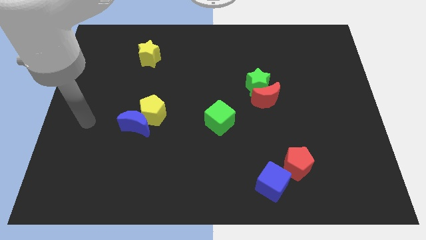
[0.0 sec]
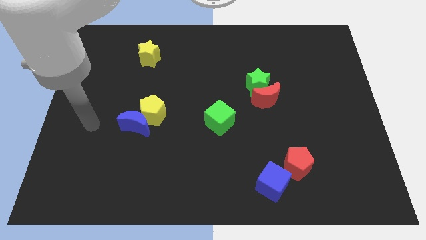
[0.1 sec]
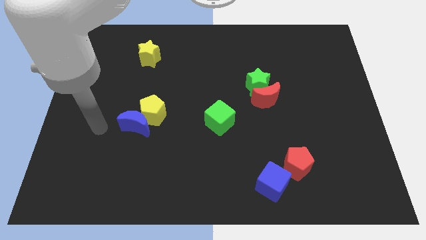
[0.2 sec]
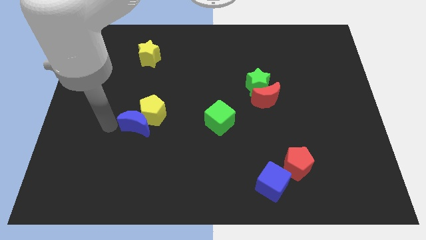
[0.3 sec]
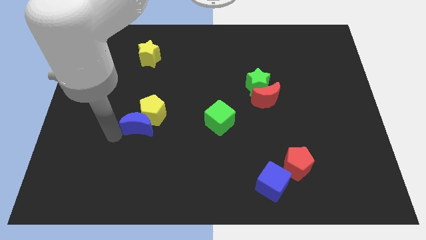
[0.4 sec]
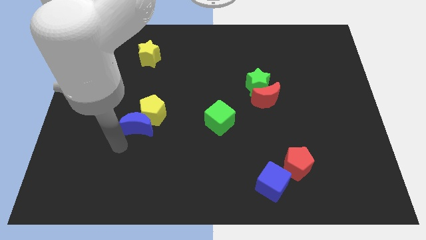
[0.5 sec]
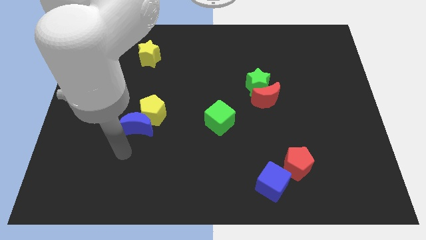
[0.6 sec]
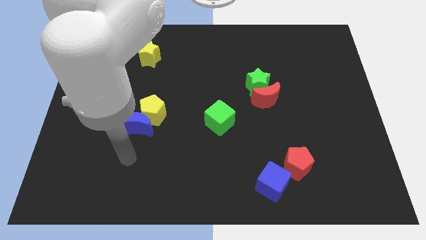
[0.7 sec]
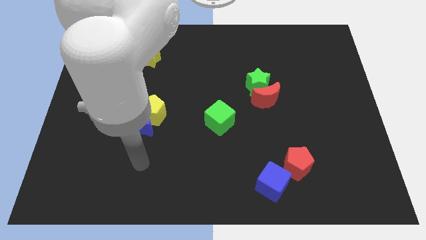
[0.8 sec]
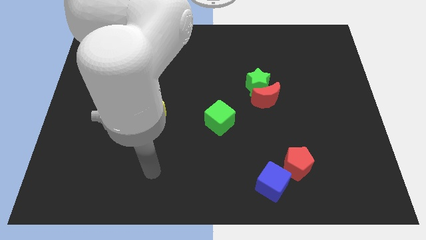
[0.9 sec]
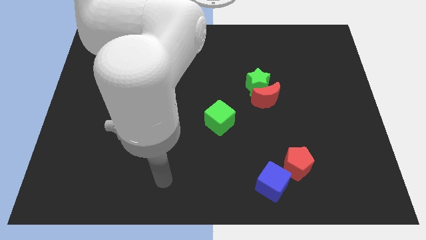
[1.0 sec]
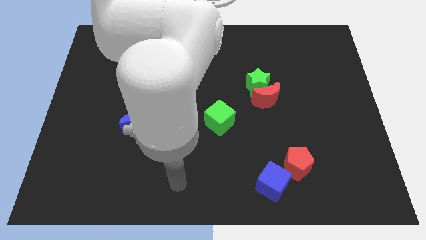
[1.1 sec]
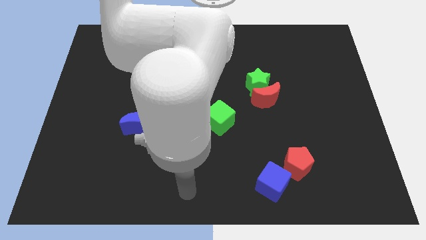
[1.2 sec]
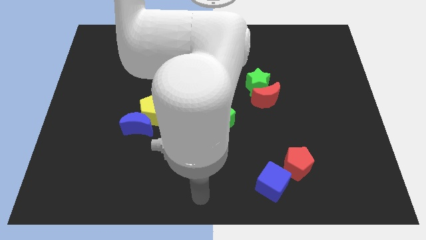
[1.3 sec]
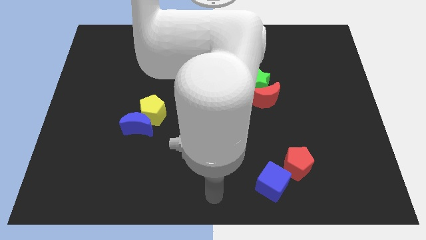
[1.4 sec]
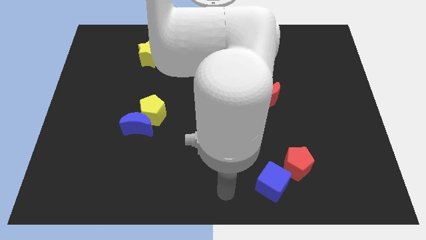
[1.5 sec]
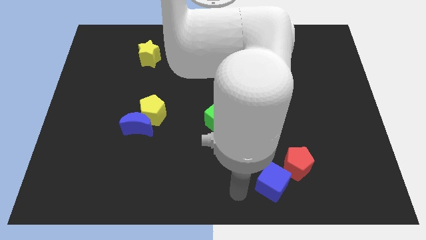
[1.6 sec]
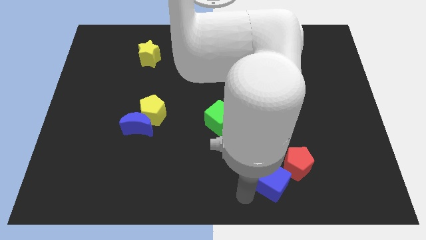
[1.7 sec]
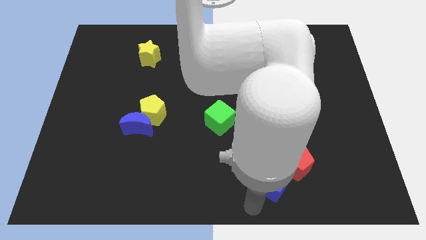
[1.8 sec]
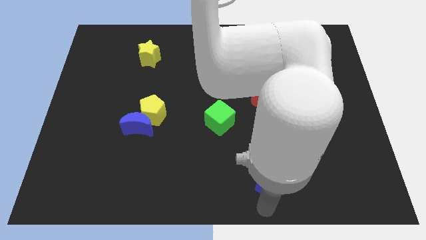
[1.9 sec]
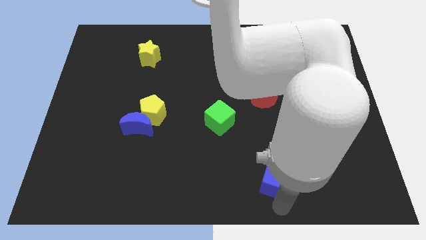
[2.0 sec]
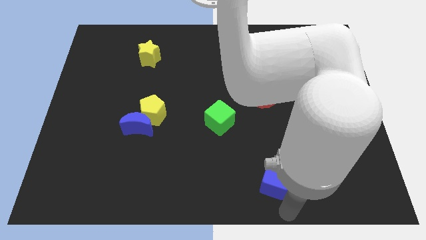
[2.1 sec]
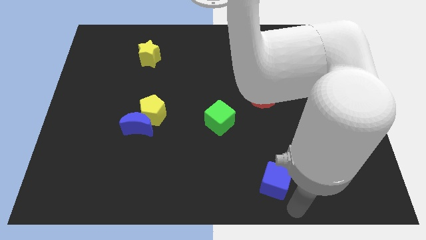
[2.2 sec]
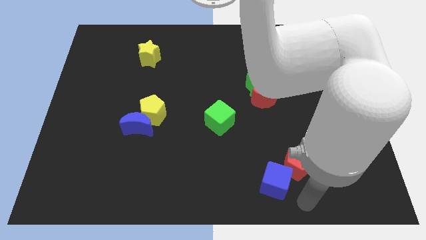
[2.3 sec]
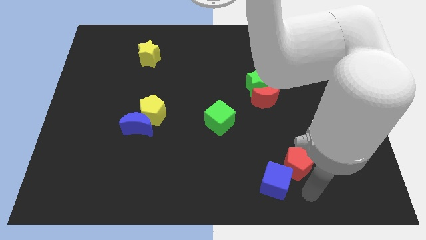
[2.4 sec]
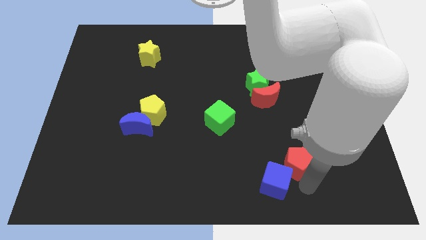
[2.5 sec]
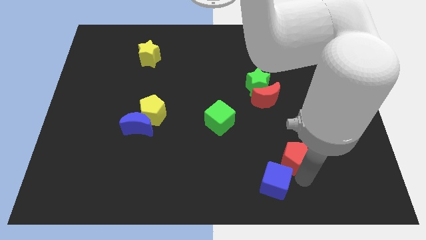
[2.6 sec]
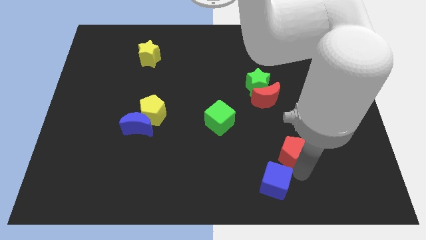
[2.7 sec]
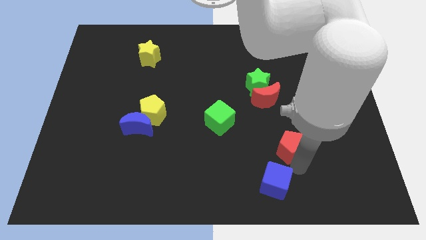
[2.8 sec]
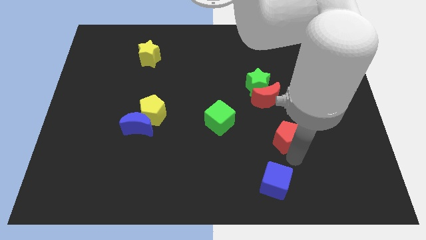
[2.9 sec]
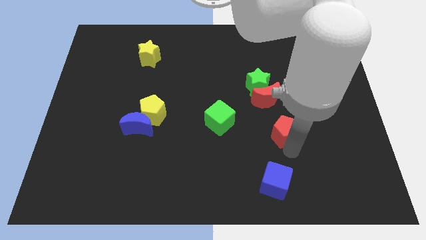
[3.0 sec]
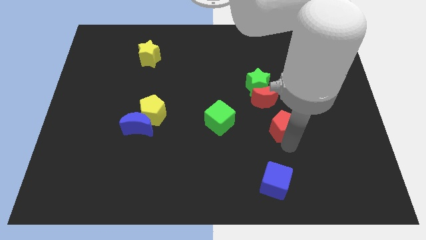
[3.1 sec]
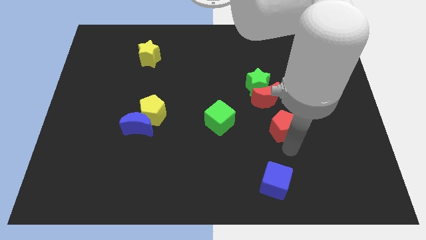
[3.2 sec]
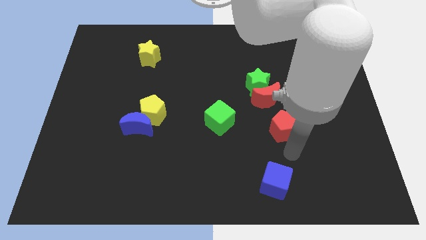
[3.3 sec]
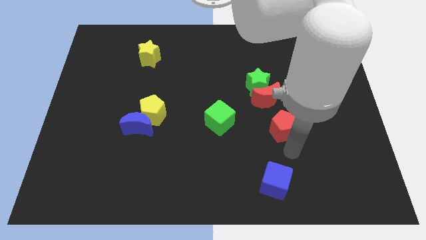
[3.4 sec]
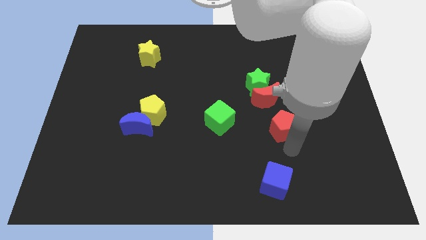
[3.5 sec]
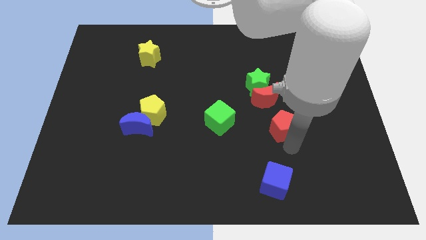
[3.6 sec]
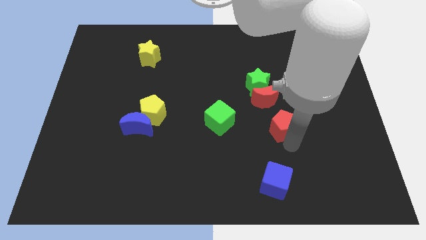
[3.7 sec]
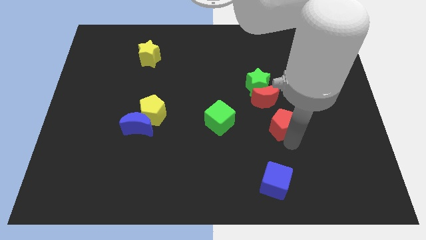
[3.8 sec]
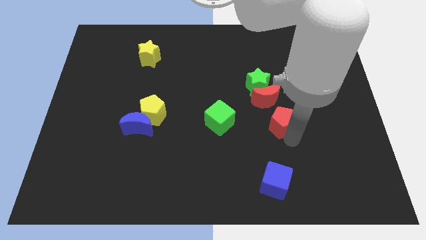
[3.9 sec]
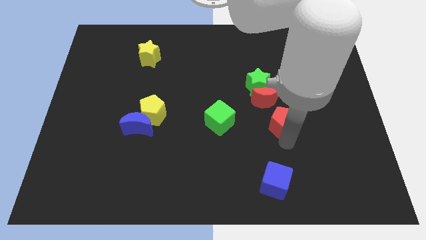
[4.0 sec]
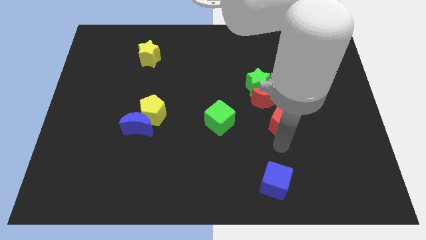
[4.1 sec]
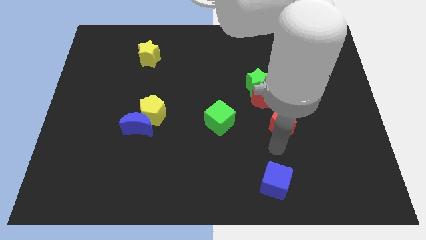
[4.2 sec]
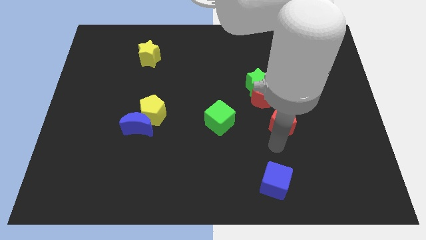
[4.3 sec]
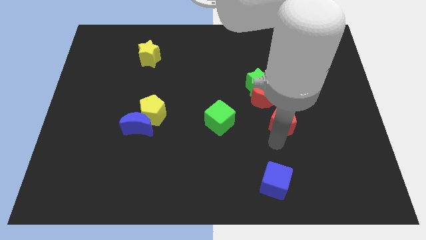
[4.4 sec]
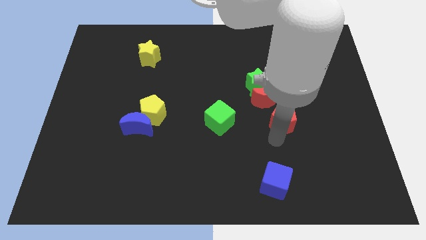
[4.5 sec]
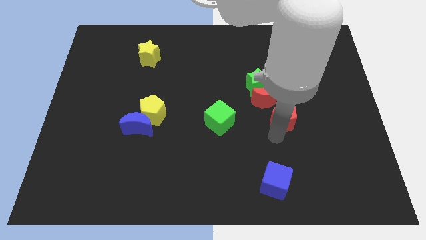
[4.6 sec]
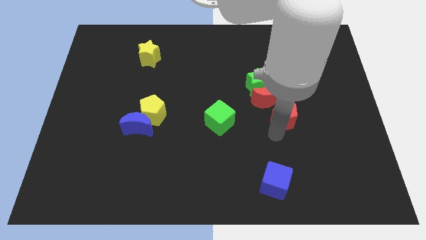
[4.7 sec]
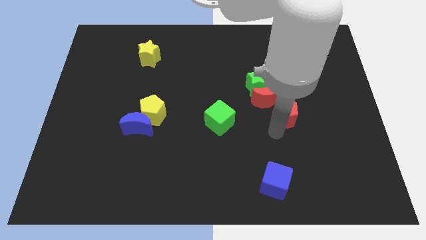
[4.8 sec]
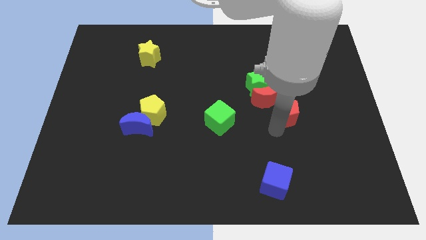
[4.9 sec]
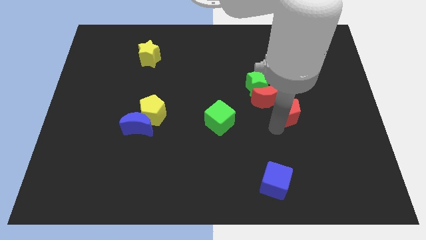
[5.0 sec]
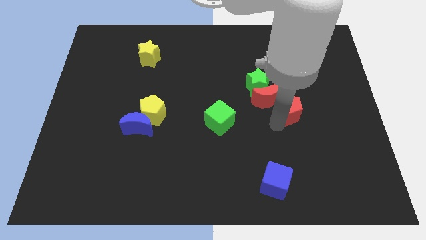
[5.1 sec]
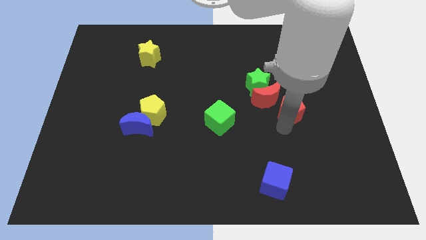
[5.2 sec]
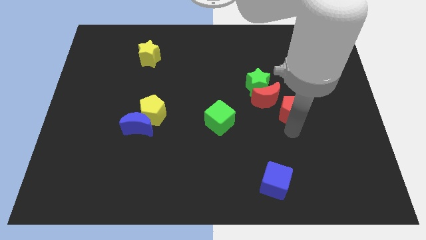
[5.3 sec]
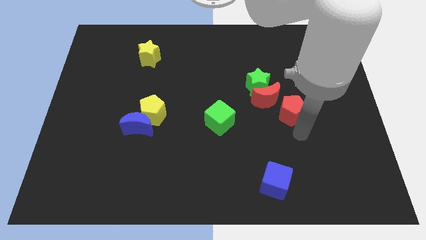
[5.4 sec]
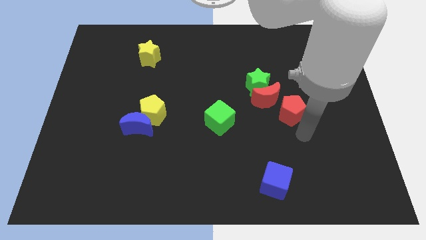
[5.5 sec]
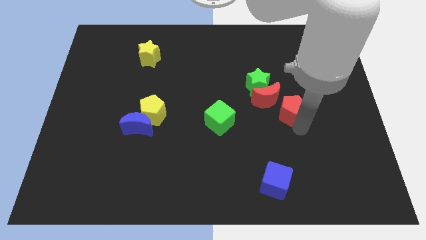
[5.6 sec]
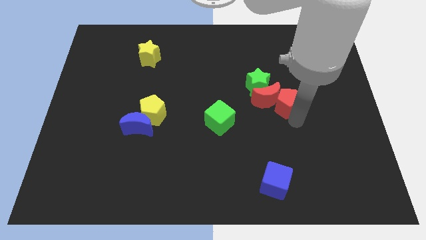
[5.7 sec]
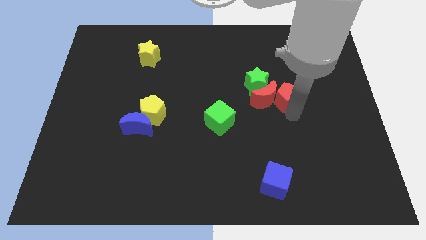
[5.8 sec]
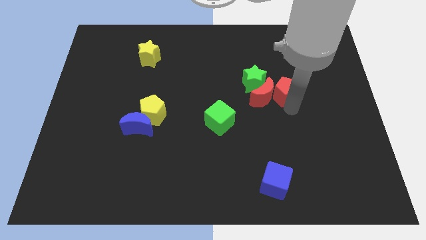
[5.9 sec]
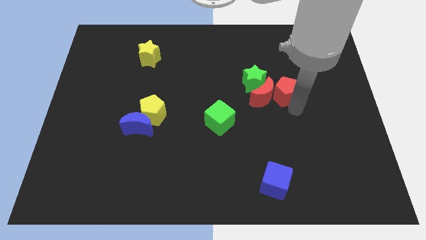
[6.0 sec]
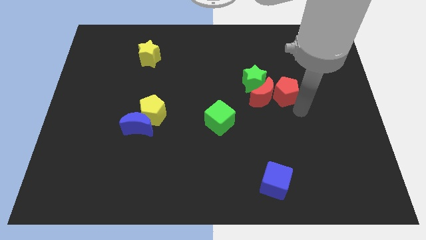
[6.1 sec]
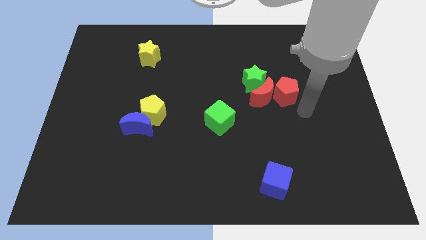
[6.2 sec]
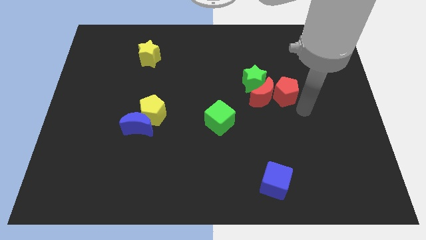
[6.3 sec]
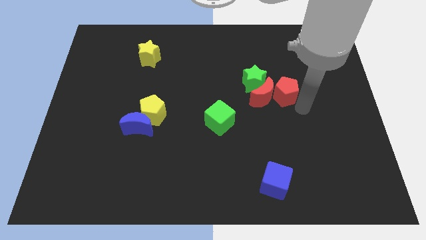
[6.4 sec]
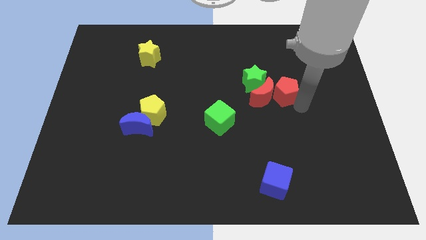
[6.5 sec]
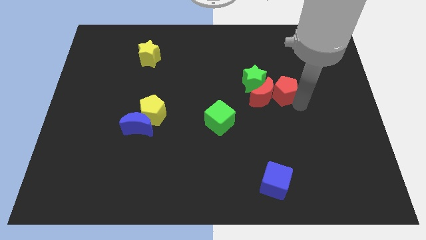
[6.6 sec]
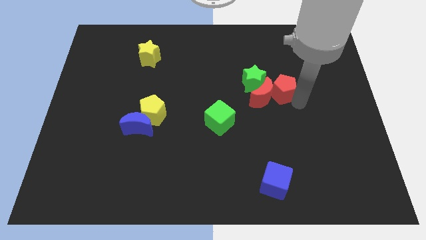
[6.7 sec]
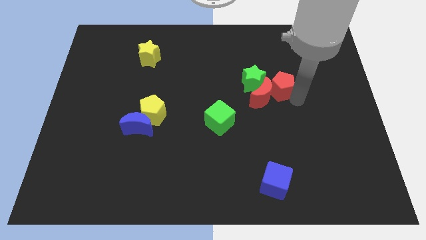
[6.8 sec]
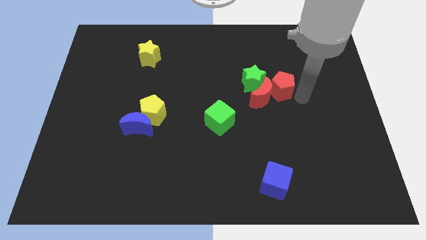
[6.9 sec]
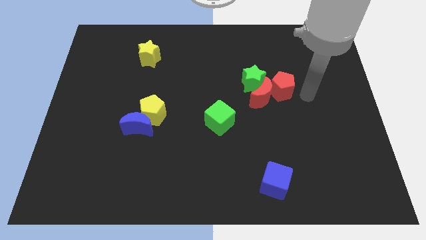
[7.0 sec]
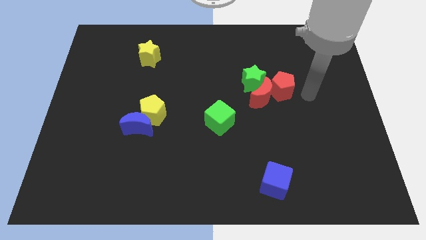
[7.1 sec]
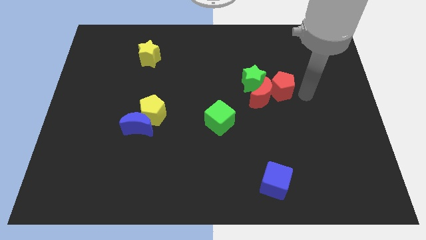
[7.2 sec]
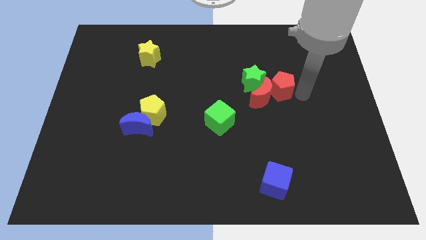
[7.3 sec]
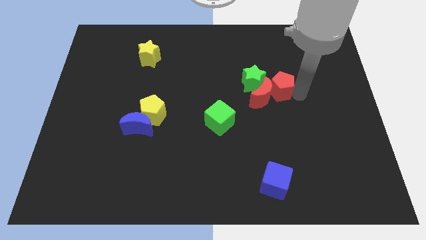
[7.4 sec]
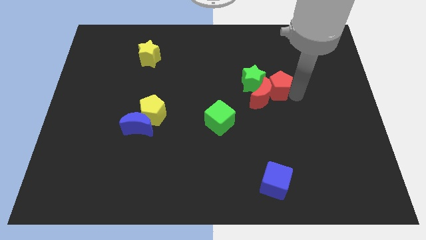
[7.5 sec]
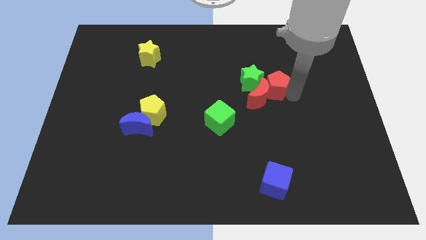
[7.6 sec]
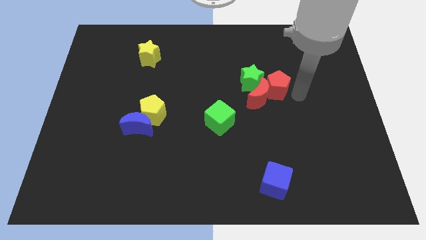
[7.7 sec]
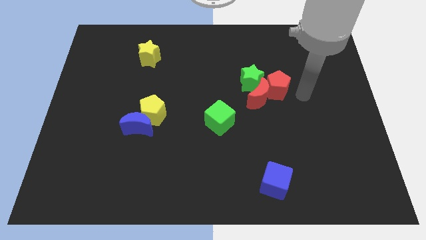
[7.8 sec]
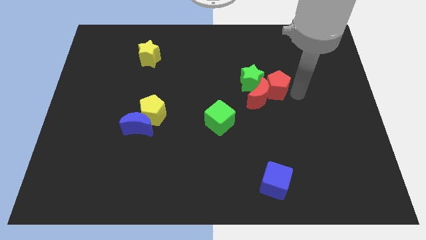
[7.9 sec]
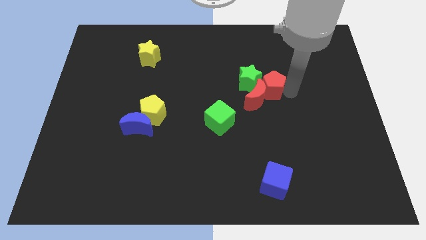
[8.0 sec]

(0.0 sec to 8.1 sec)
put the red pentagon towards the green star

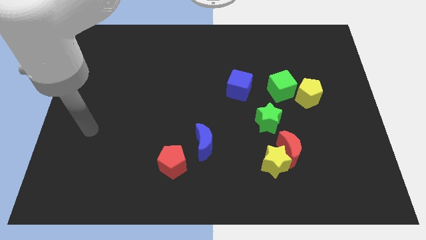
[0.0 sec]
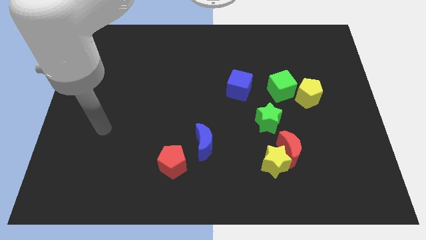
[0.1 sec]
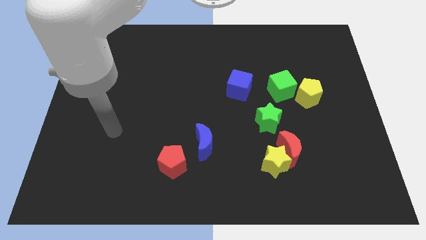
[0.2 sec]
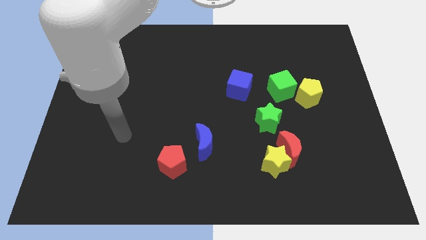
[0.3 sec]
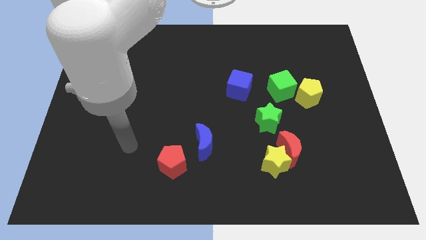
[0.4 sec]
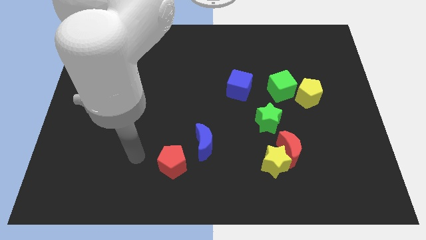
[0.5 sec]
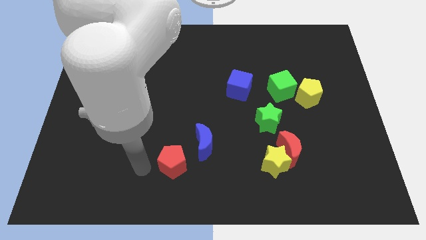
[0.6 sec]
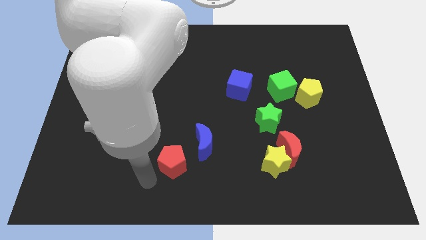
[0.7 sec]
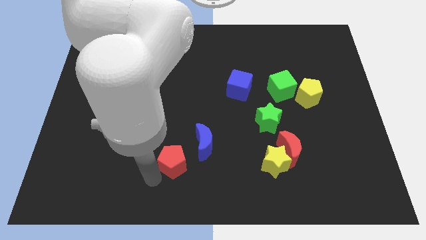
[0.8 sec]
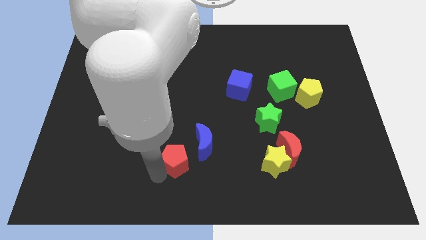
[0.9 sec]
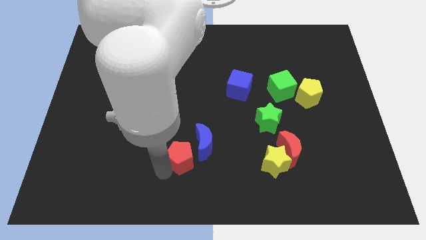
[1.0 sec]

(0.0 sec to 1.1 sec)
put the red pentagon to the blue moon
